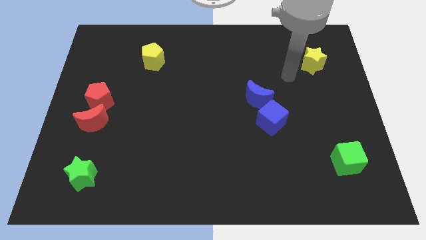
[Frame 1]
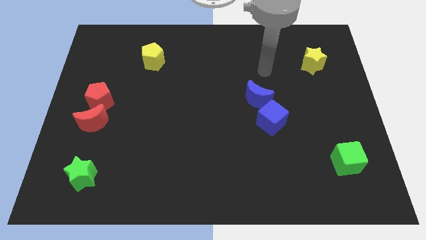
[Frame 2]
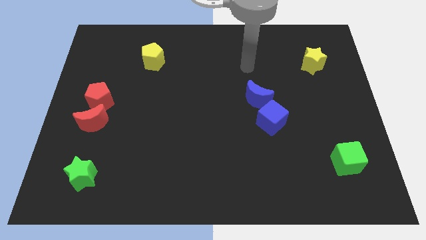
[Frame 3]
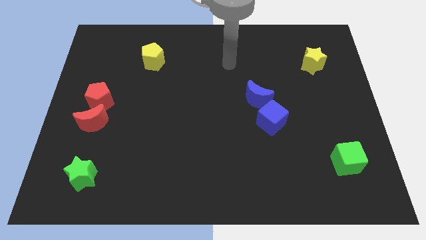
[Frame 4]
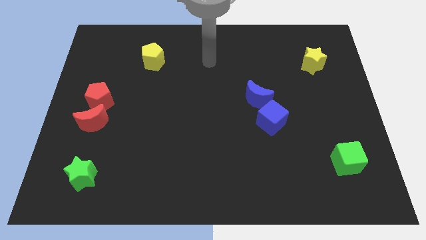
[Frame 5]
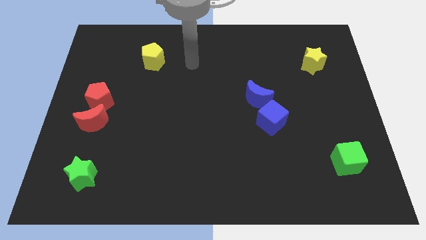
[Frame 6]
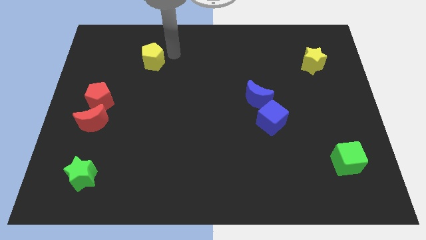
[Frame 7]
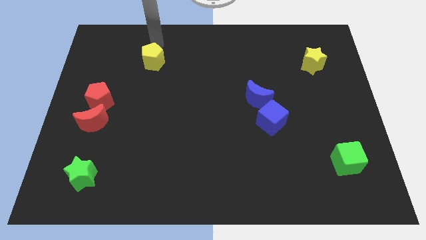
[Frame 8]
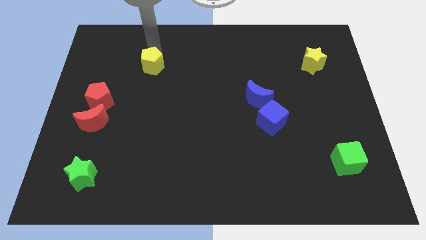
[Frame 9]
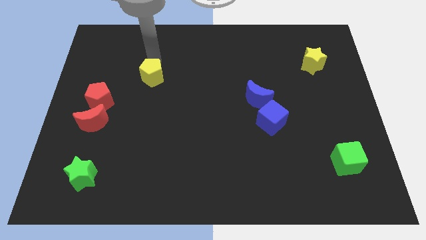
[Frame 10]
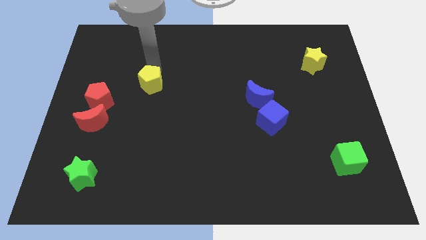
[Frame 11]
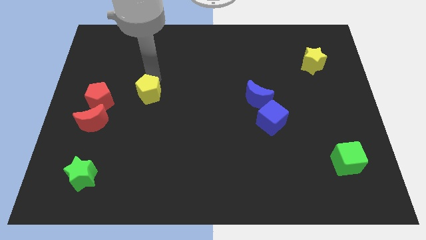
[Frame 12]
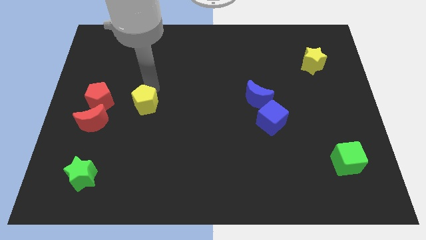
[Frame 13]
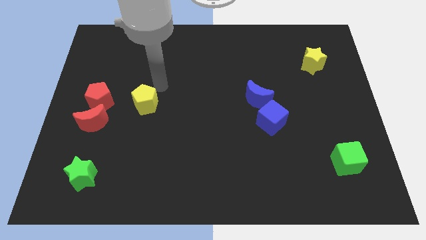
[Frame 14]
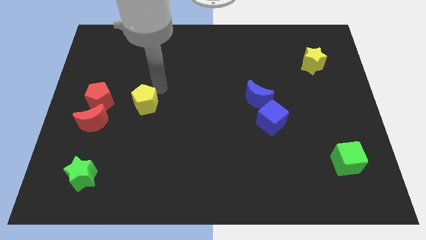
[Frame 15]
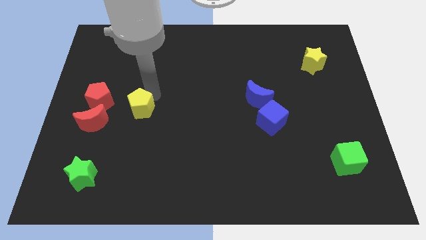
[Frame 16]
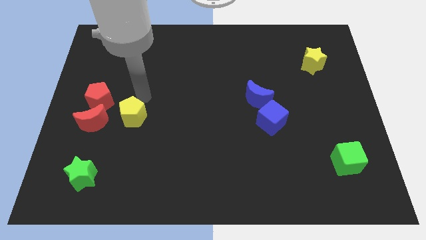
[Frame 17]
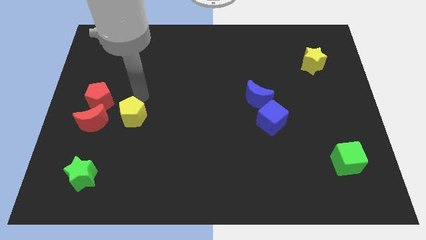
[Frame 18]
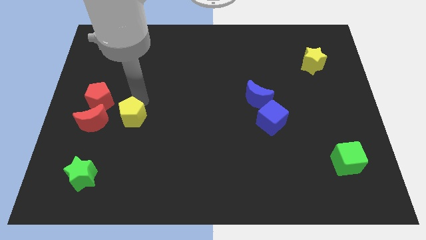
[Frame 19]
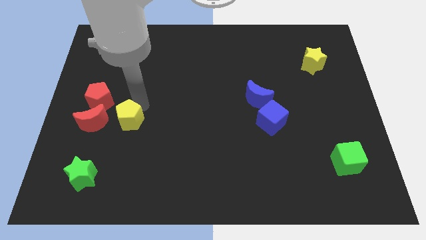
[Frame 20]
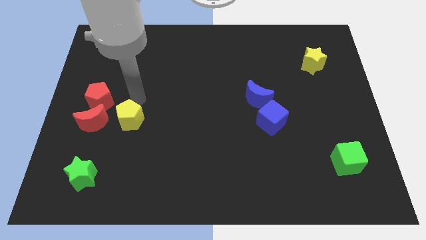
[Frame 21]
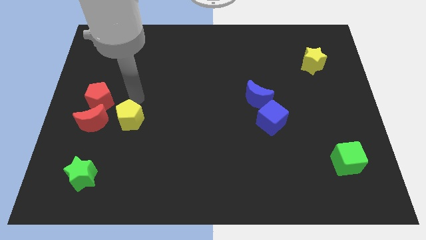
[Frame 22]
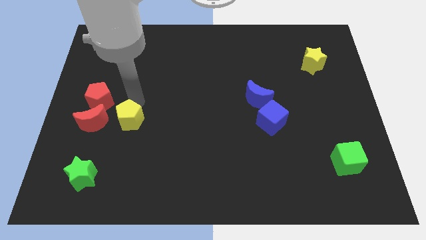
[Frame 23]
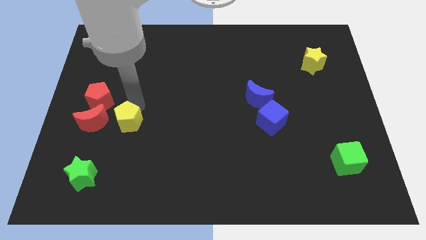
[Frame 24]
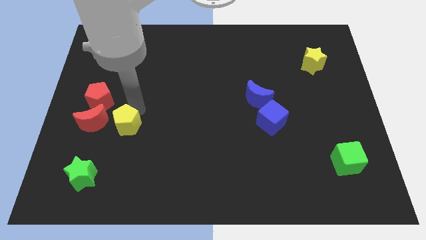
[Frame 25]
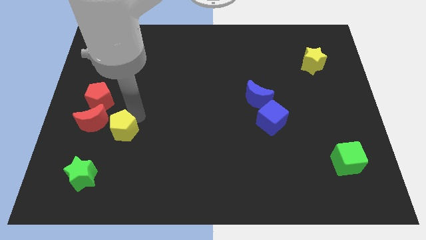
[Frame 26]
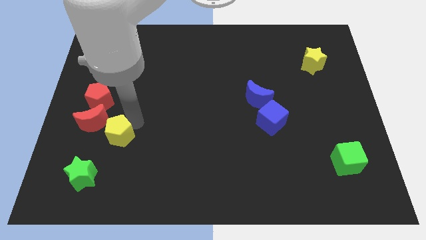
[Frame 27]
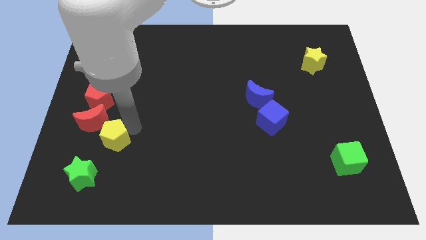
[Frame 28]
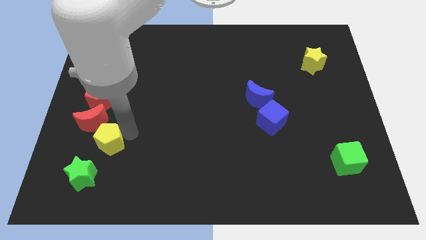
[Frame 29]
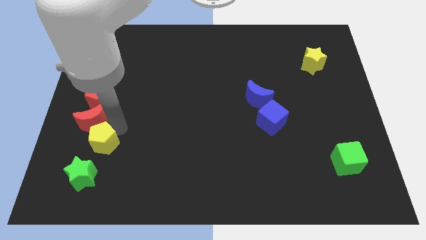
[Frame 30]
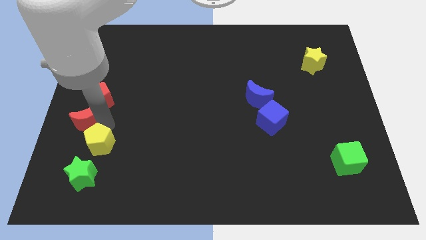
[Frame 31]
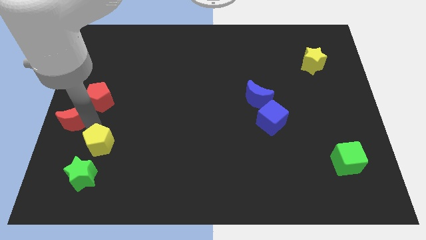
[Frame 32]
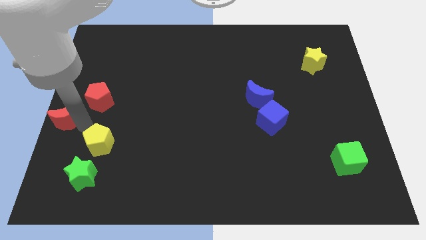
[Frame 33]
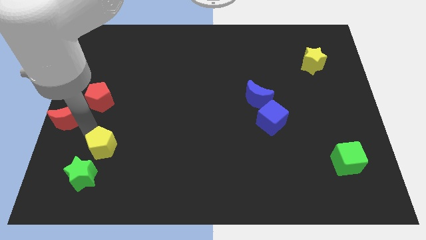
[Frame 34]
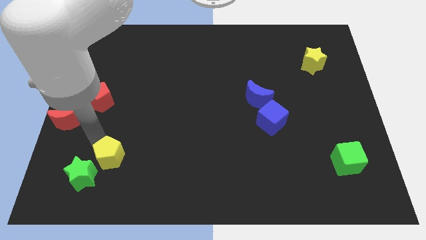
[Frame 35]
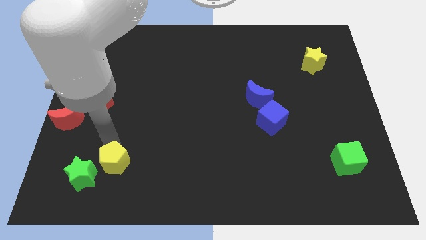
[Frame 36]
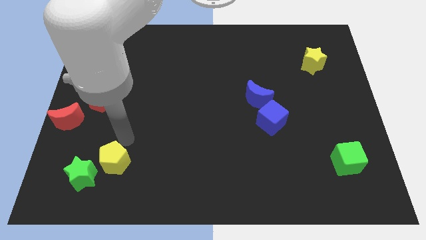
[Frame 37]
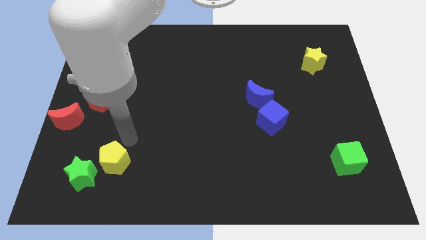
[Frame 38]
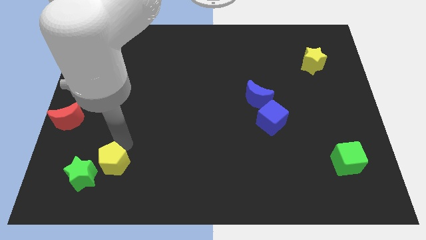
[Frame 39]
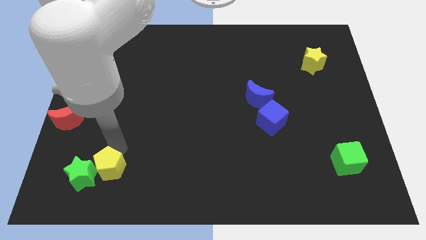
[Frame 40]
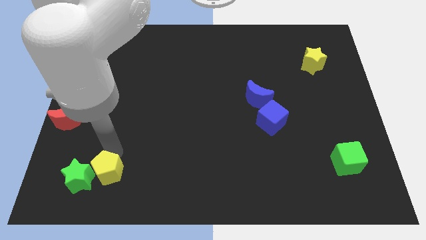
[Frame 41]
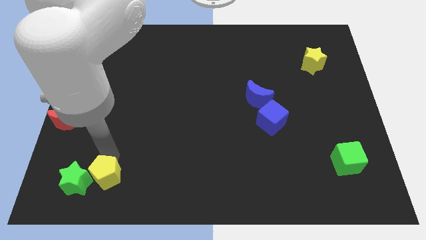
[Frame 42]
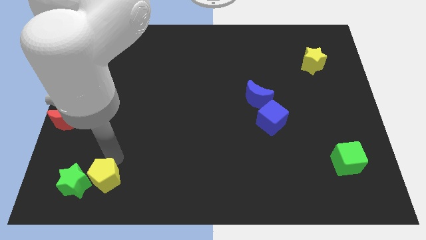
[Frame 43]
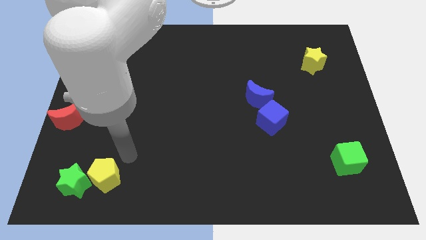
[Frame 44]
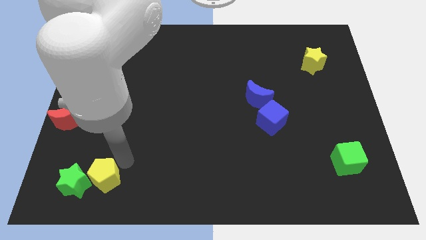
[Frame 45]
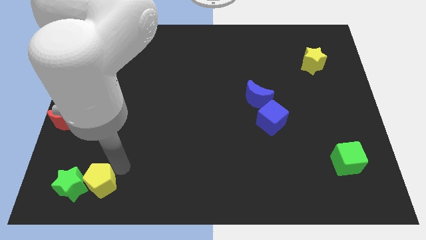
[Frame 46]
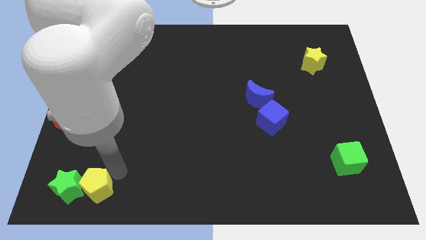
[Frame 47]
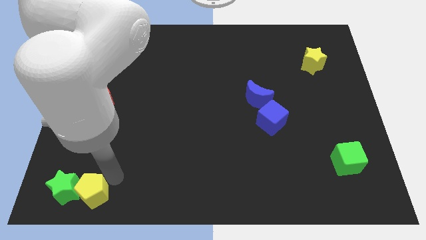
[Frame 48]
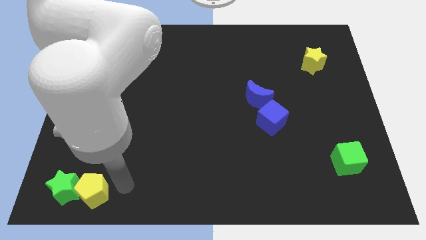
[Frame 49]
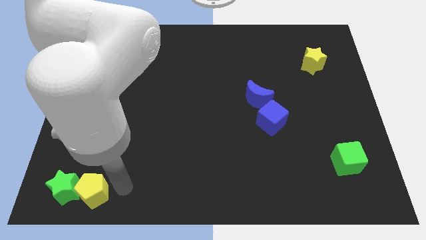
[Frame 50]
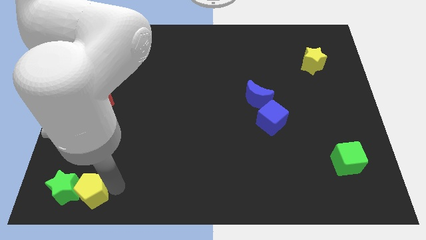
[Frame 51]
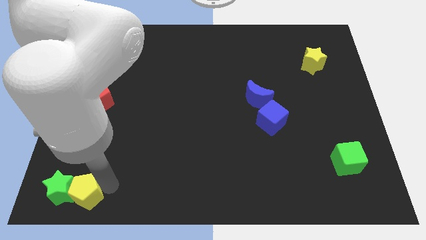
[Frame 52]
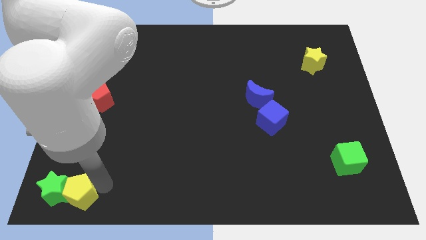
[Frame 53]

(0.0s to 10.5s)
slide the yellow pentagon to the bottom left of the board

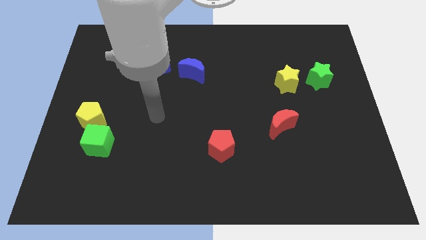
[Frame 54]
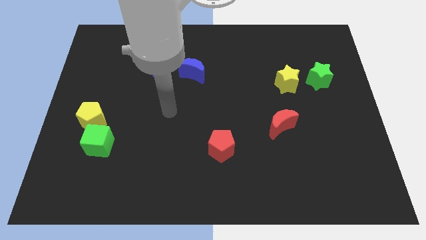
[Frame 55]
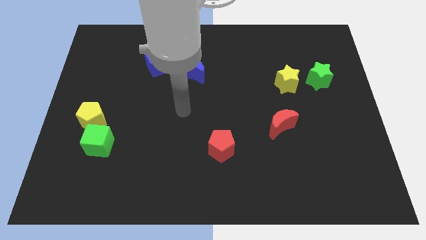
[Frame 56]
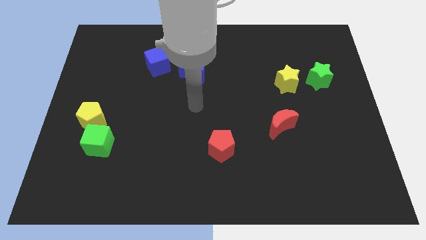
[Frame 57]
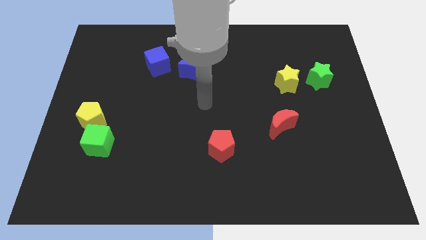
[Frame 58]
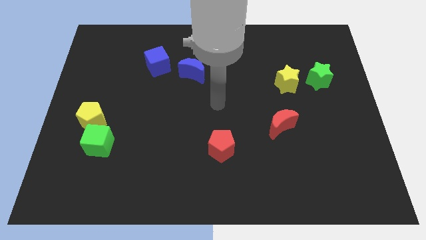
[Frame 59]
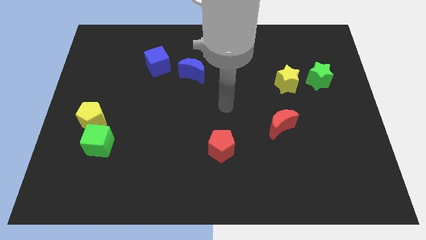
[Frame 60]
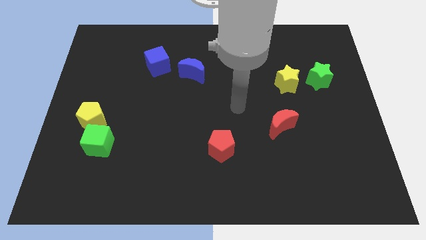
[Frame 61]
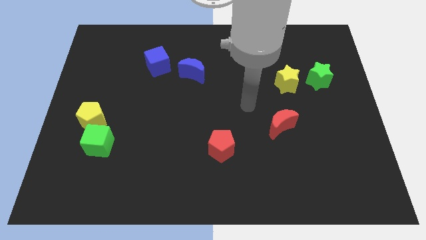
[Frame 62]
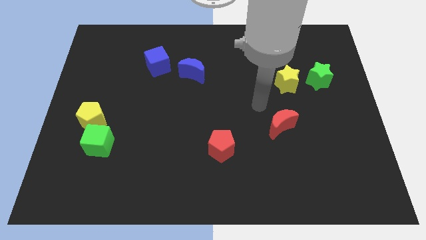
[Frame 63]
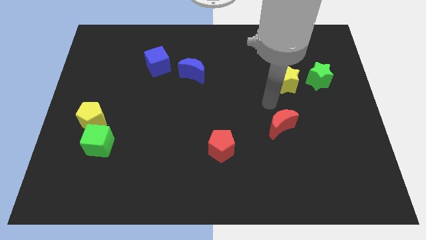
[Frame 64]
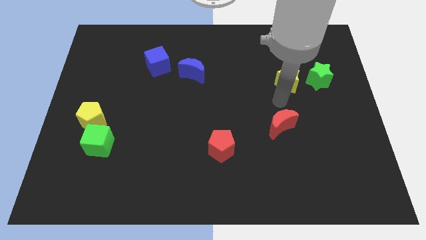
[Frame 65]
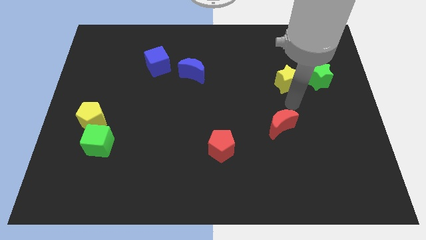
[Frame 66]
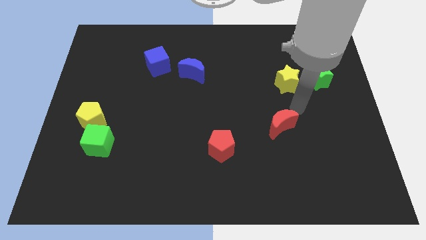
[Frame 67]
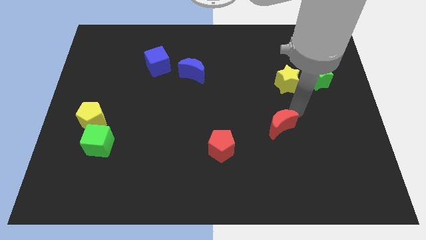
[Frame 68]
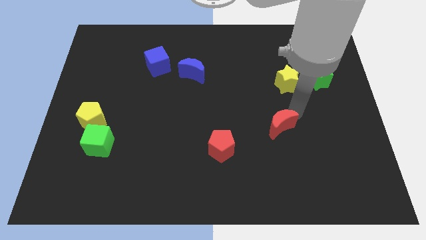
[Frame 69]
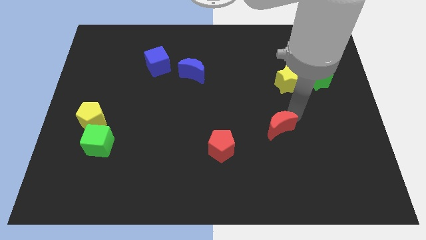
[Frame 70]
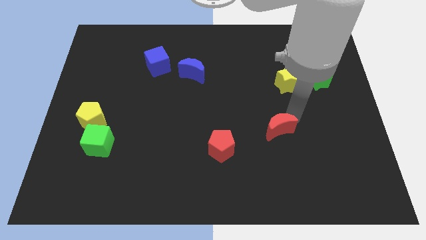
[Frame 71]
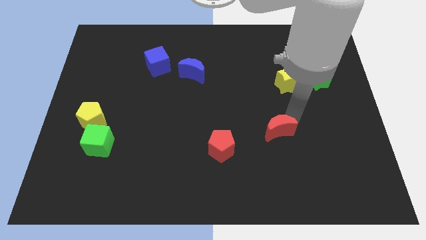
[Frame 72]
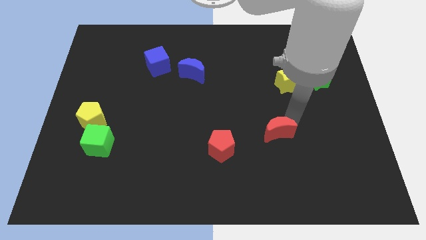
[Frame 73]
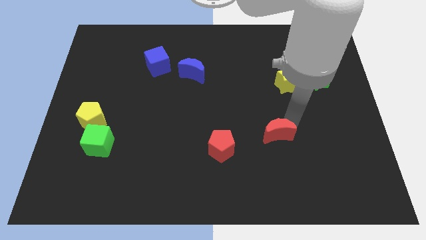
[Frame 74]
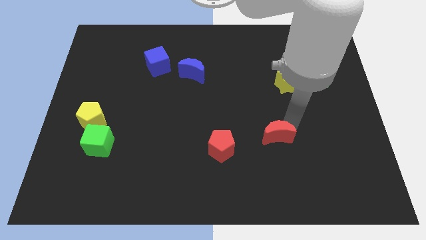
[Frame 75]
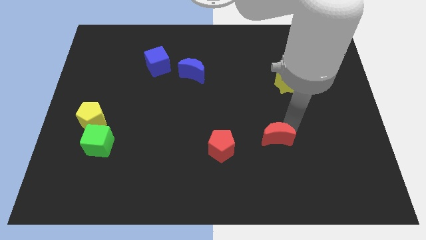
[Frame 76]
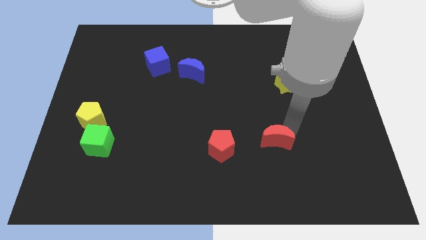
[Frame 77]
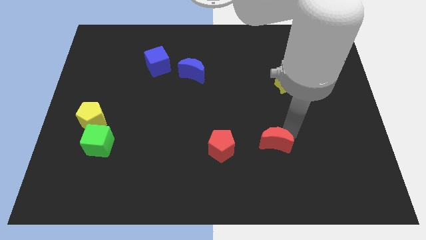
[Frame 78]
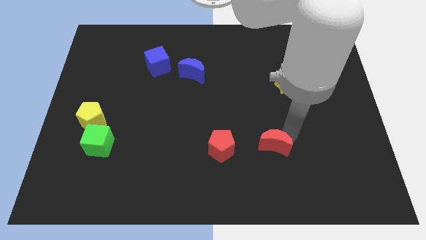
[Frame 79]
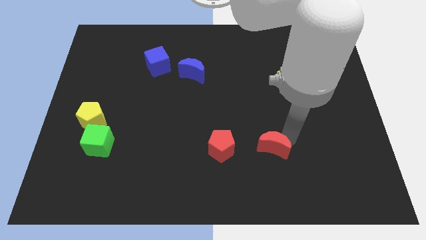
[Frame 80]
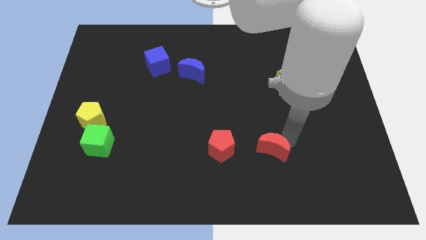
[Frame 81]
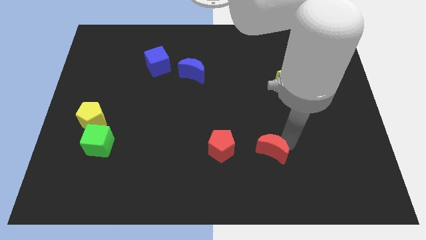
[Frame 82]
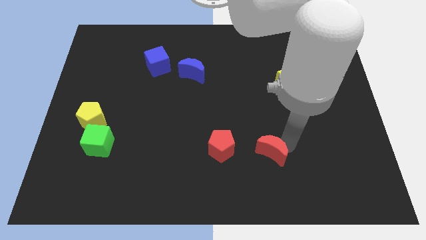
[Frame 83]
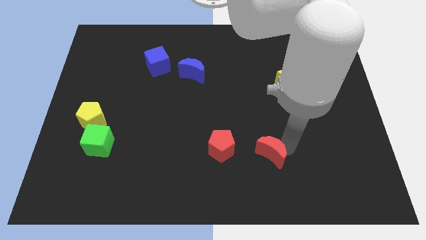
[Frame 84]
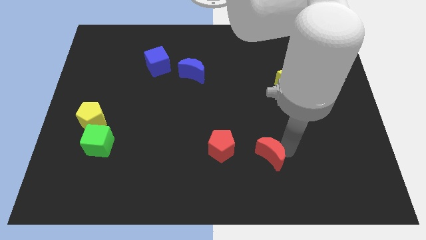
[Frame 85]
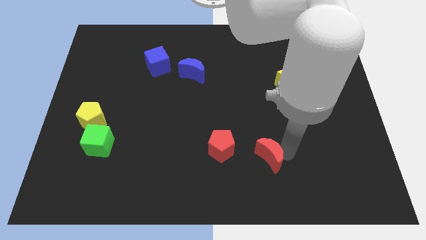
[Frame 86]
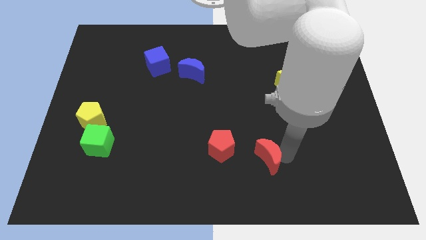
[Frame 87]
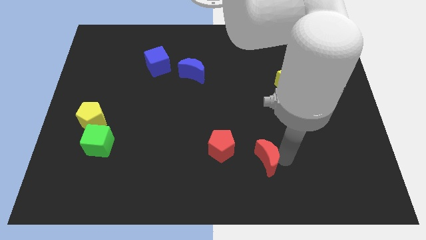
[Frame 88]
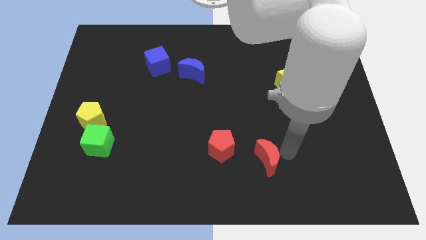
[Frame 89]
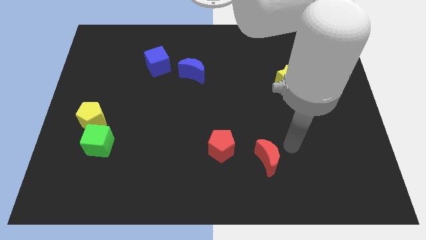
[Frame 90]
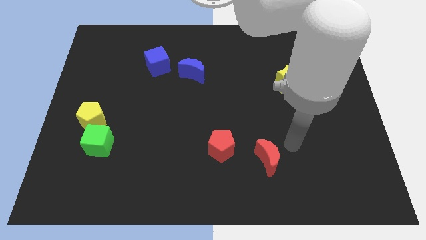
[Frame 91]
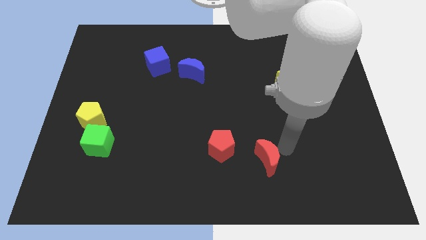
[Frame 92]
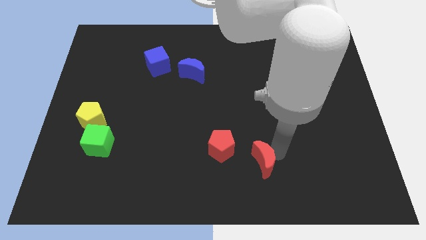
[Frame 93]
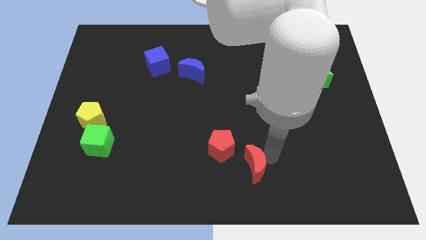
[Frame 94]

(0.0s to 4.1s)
push the red moon to the bottom
